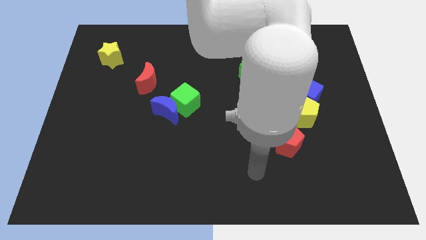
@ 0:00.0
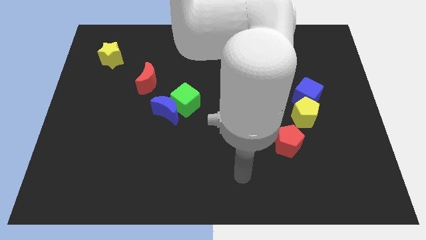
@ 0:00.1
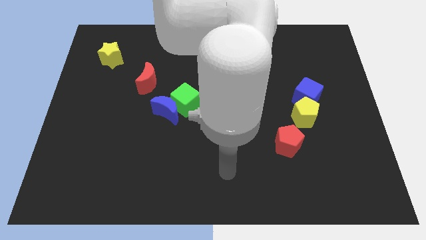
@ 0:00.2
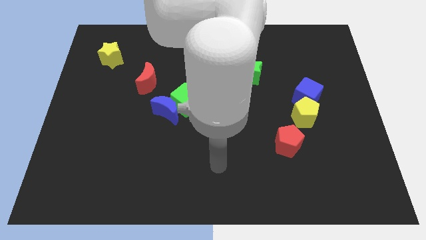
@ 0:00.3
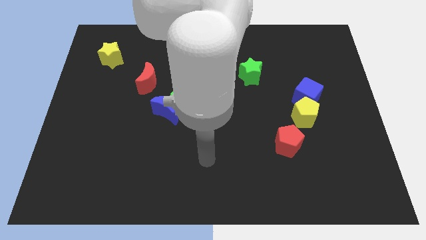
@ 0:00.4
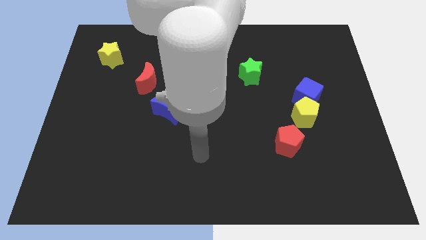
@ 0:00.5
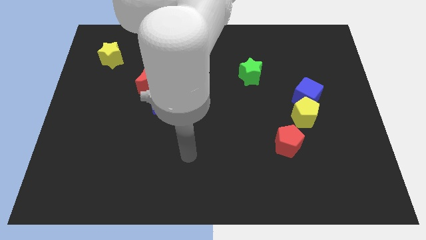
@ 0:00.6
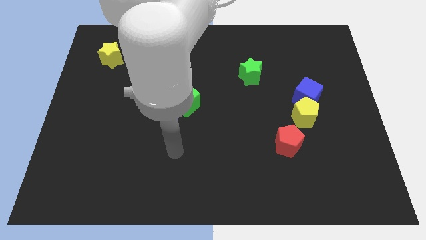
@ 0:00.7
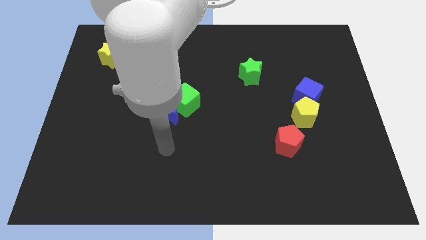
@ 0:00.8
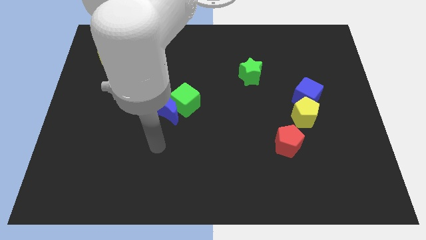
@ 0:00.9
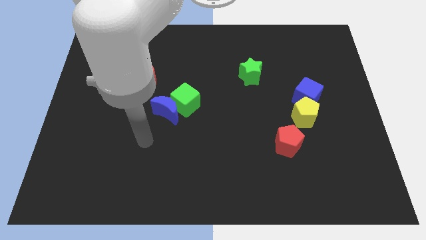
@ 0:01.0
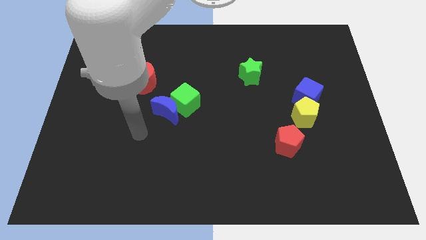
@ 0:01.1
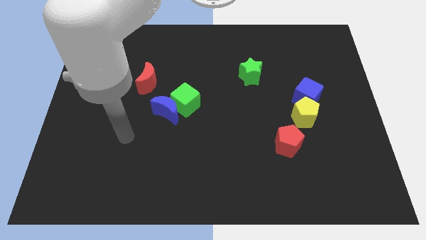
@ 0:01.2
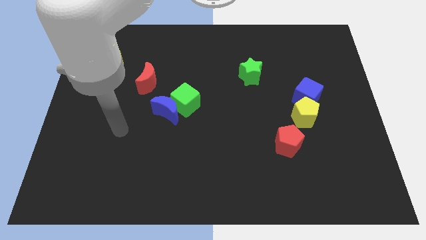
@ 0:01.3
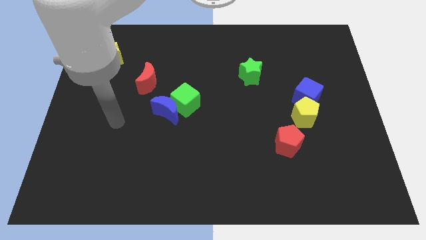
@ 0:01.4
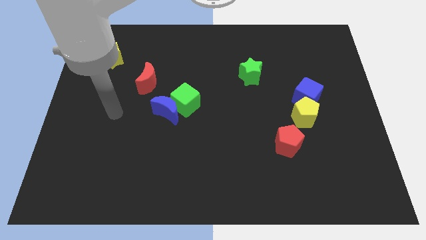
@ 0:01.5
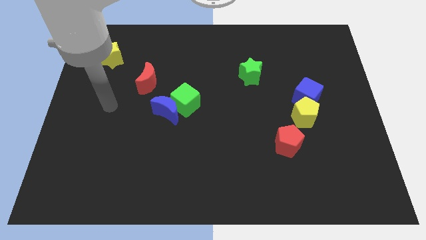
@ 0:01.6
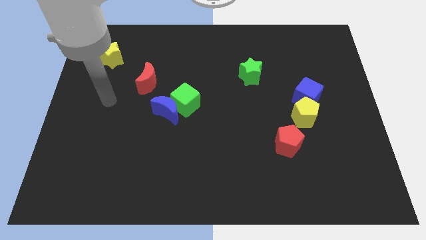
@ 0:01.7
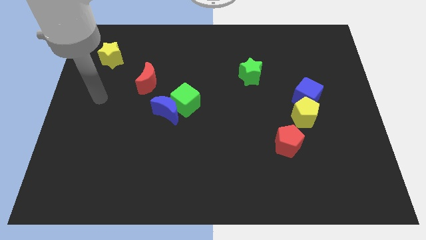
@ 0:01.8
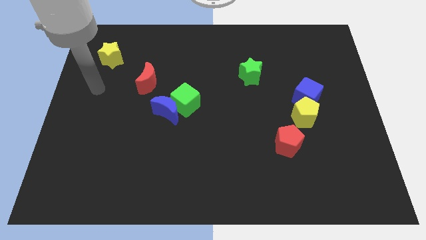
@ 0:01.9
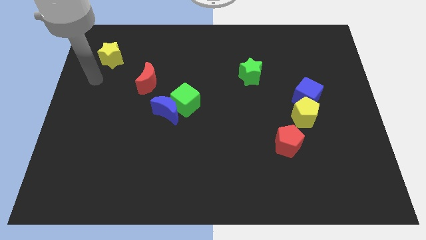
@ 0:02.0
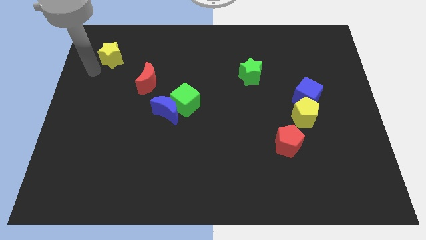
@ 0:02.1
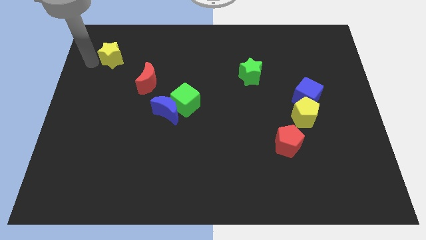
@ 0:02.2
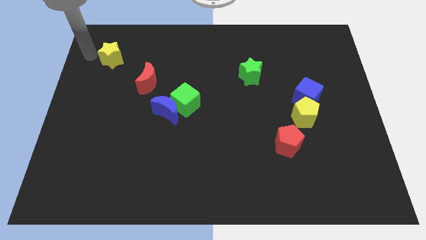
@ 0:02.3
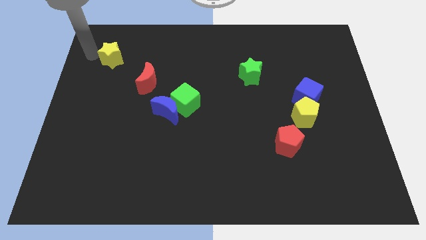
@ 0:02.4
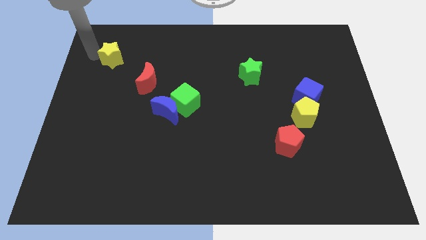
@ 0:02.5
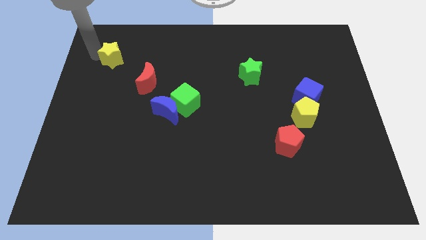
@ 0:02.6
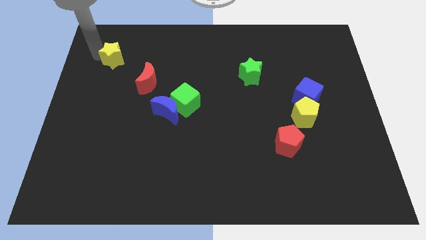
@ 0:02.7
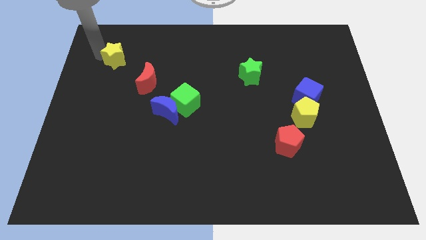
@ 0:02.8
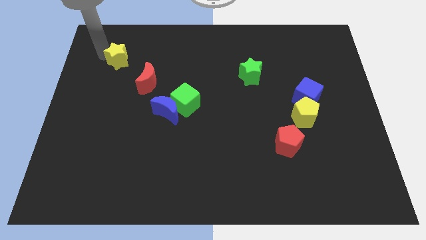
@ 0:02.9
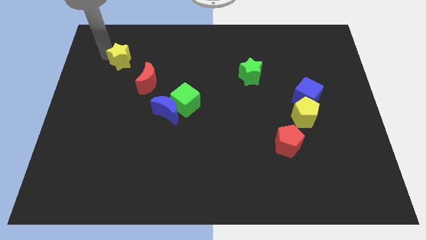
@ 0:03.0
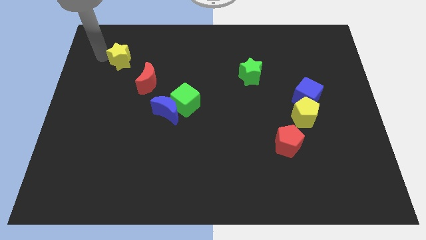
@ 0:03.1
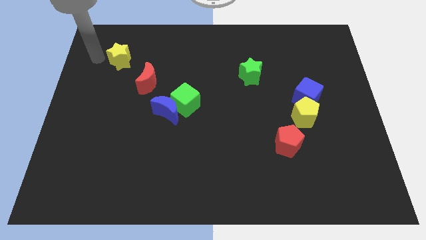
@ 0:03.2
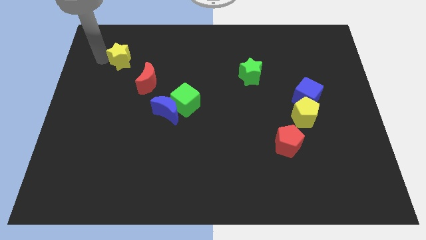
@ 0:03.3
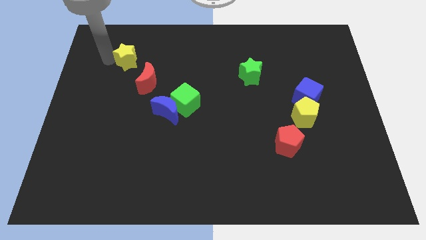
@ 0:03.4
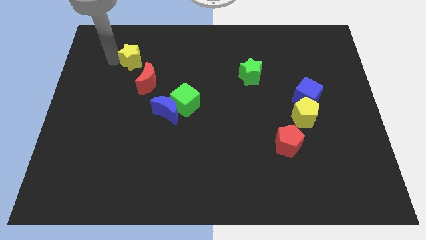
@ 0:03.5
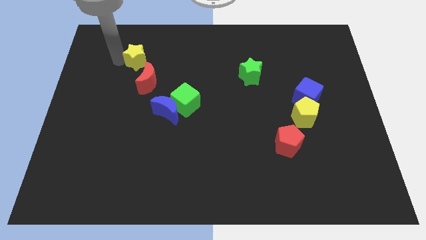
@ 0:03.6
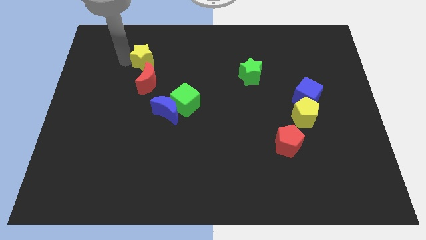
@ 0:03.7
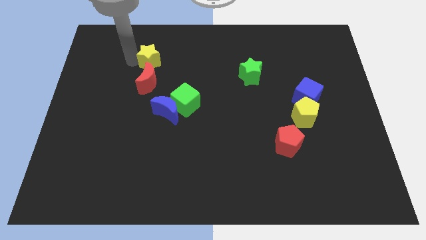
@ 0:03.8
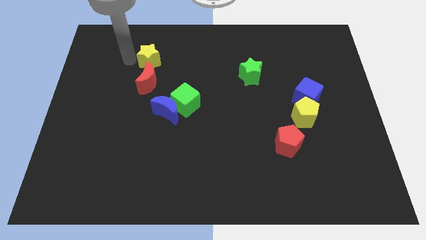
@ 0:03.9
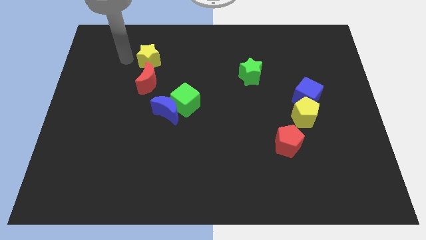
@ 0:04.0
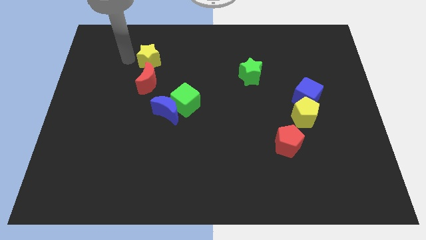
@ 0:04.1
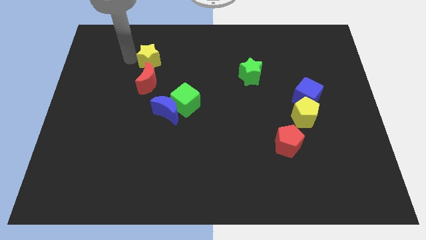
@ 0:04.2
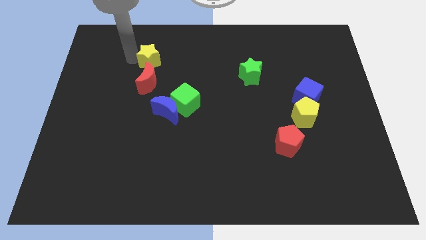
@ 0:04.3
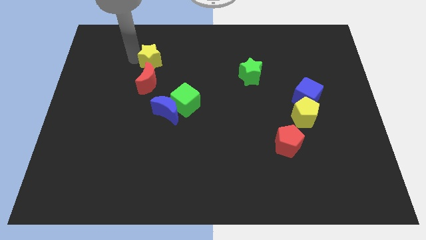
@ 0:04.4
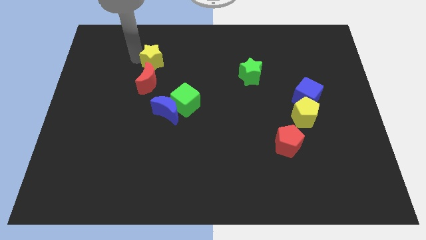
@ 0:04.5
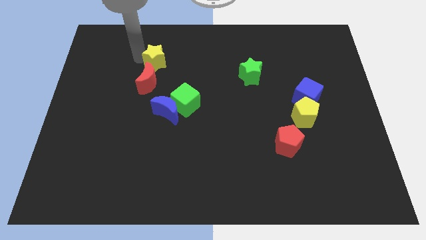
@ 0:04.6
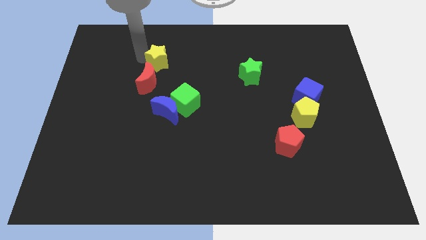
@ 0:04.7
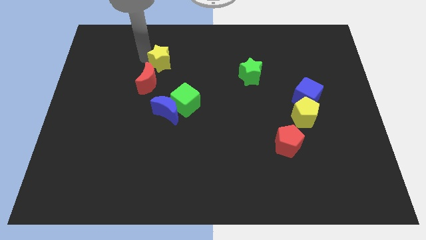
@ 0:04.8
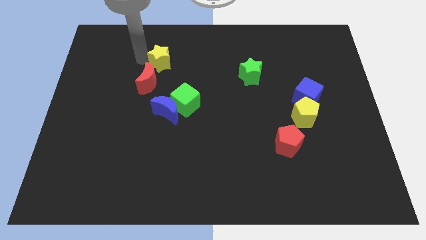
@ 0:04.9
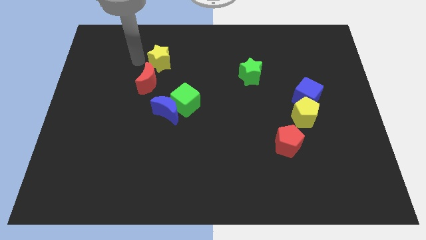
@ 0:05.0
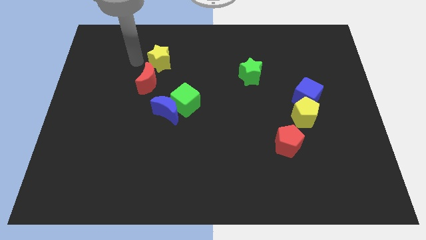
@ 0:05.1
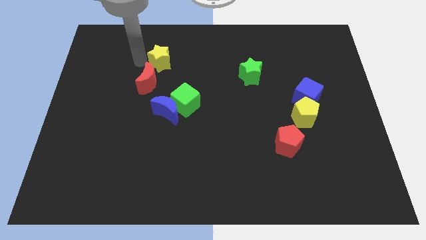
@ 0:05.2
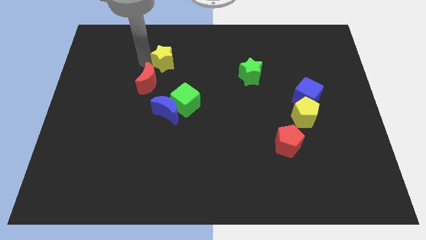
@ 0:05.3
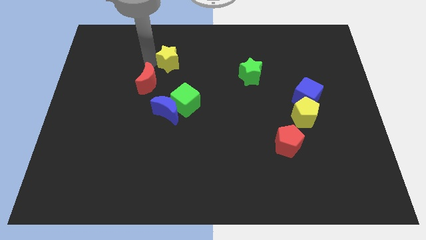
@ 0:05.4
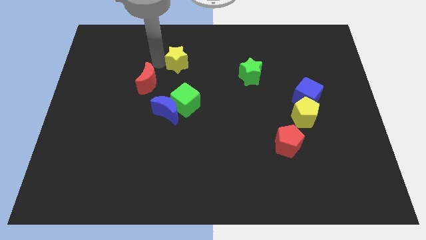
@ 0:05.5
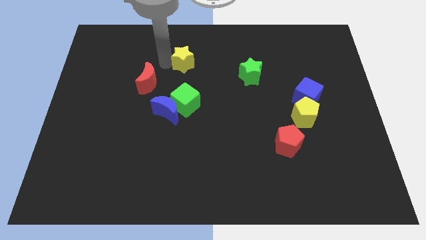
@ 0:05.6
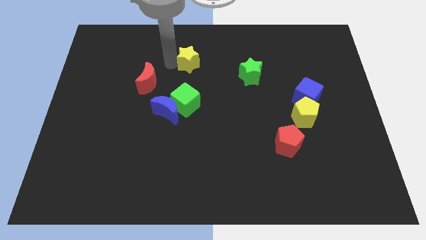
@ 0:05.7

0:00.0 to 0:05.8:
push the yellow star to the right

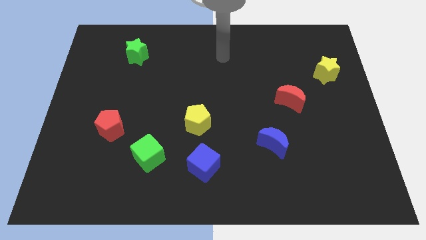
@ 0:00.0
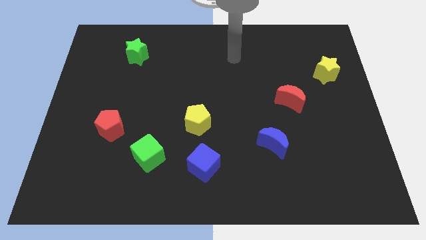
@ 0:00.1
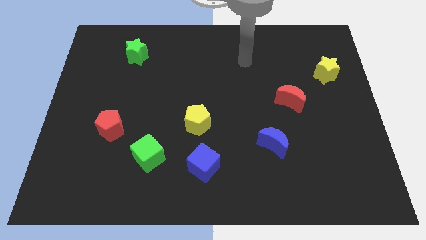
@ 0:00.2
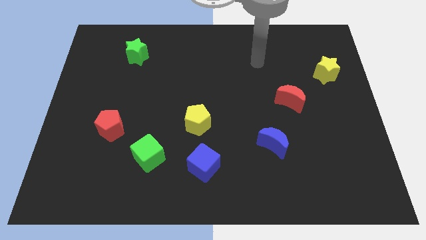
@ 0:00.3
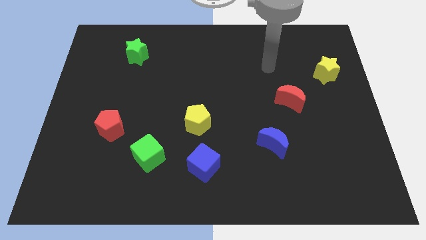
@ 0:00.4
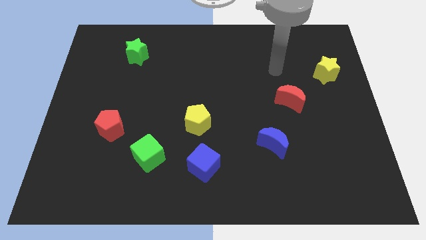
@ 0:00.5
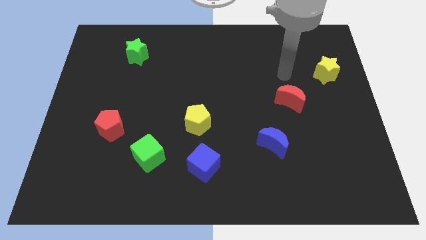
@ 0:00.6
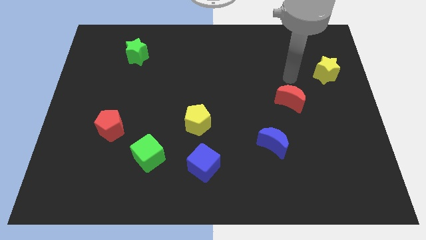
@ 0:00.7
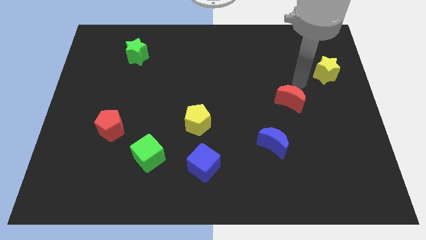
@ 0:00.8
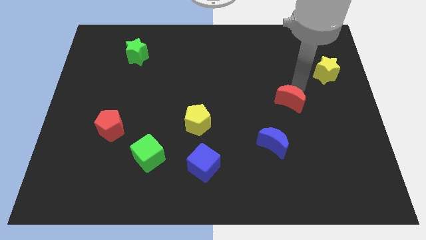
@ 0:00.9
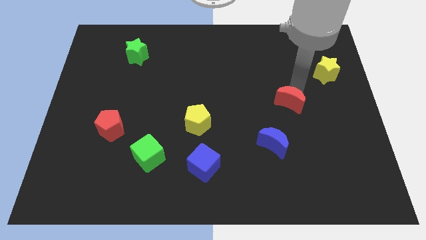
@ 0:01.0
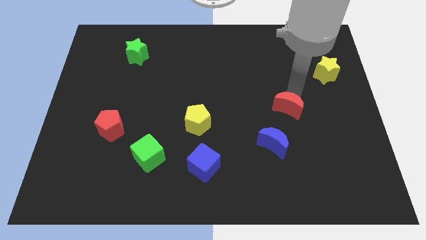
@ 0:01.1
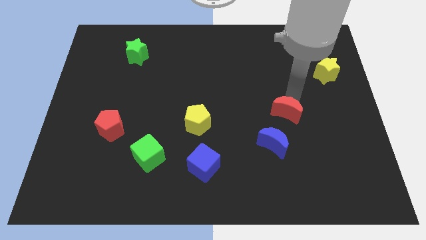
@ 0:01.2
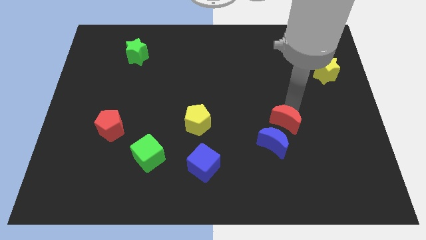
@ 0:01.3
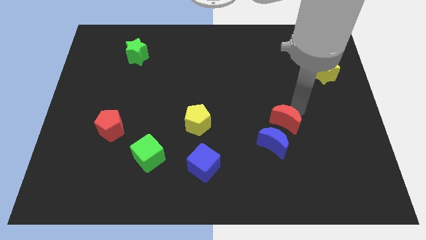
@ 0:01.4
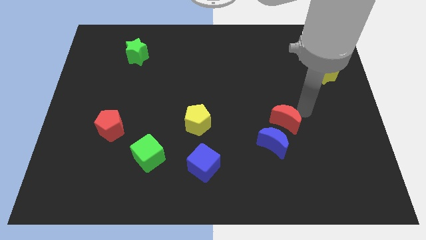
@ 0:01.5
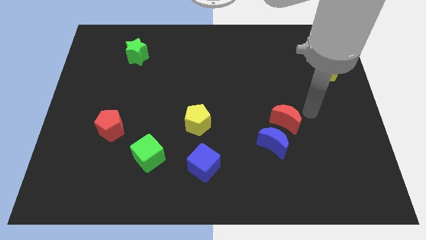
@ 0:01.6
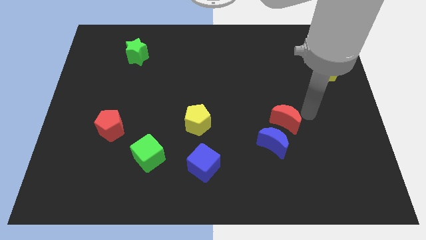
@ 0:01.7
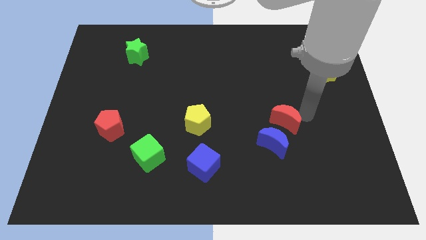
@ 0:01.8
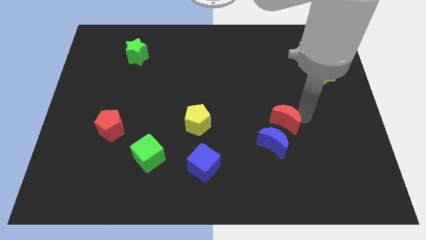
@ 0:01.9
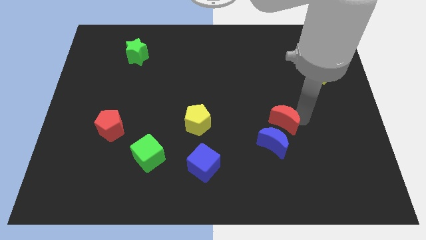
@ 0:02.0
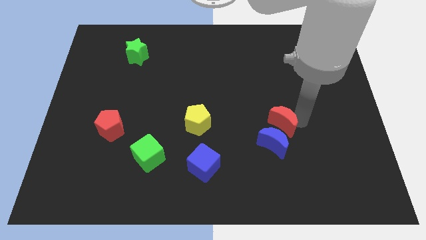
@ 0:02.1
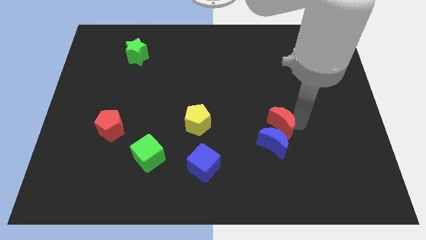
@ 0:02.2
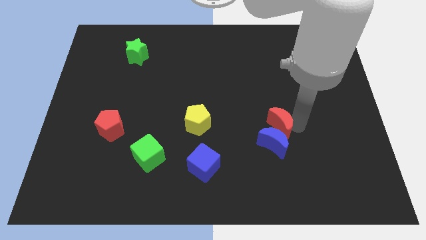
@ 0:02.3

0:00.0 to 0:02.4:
push the red moon diagonally down and left slightly
